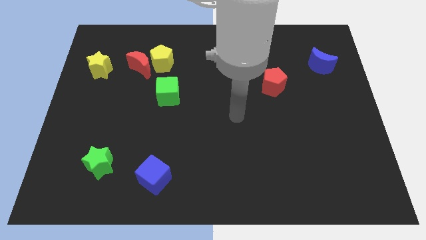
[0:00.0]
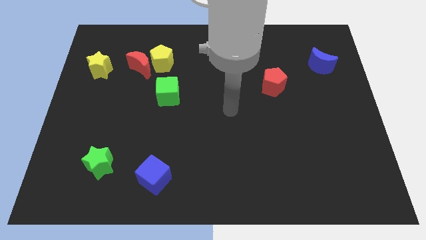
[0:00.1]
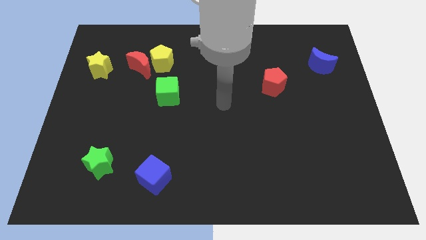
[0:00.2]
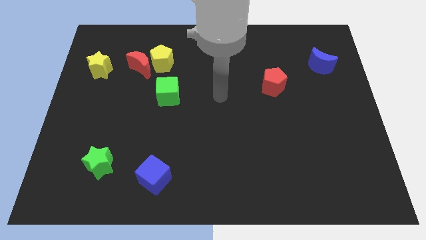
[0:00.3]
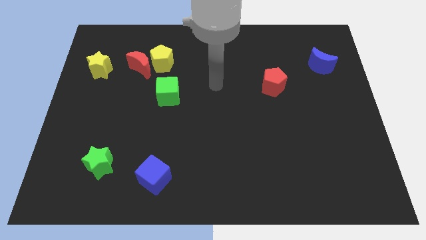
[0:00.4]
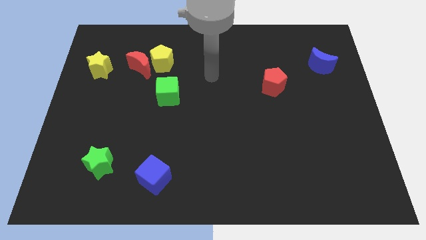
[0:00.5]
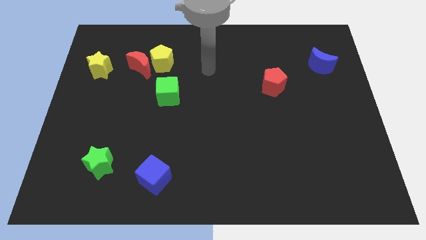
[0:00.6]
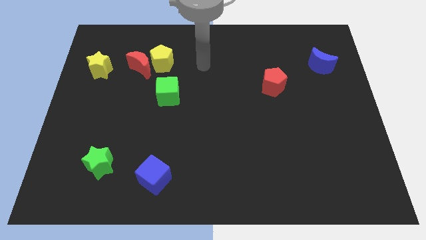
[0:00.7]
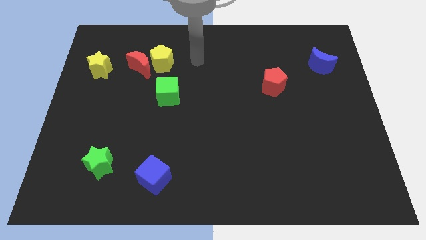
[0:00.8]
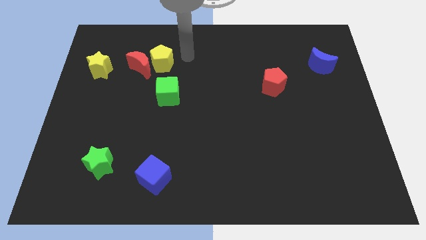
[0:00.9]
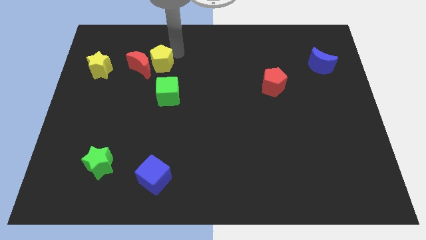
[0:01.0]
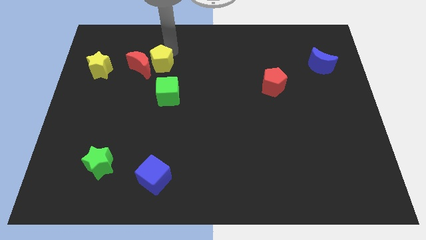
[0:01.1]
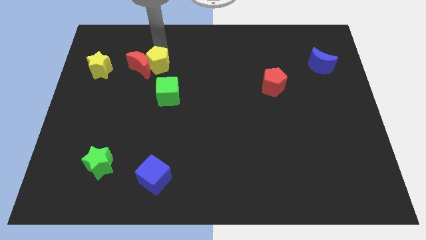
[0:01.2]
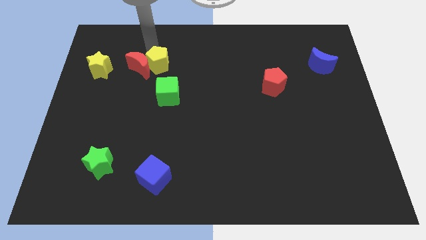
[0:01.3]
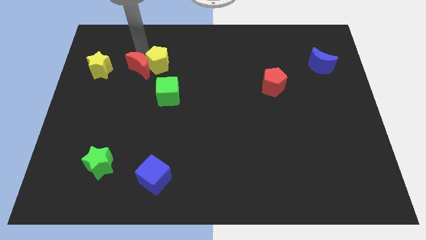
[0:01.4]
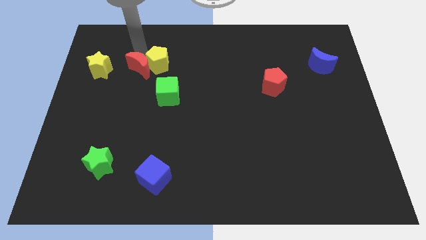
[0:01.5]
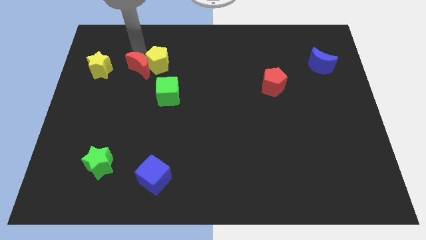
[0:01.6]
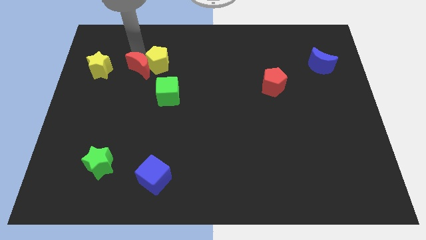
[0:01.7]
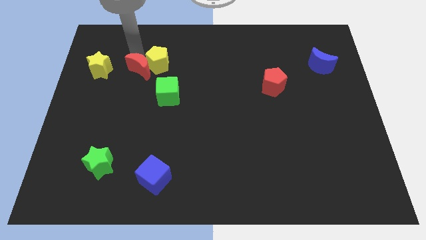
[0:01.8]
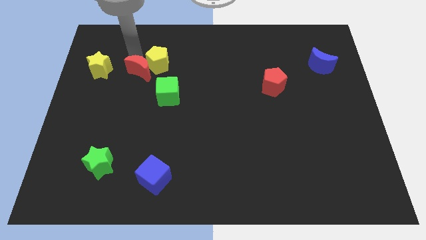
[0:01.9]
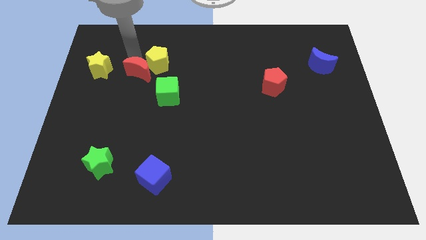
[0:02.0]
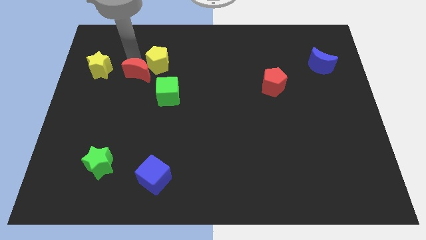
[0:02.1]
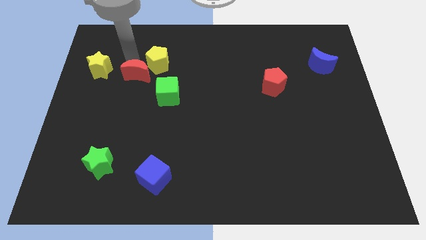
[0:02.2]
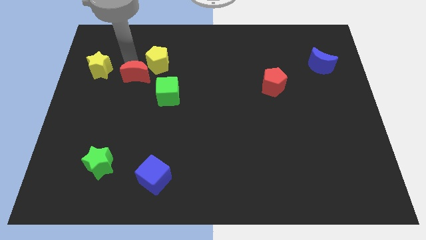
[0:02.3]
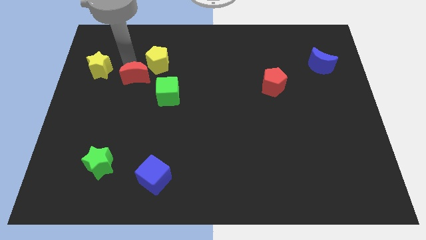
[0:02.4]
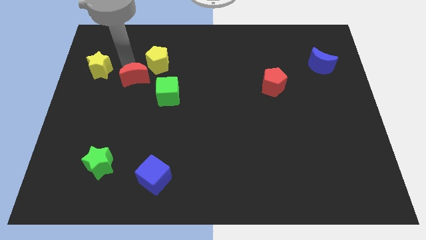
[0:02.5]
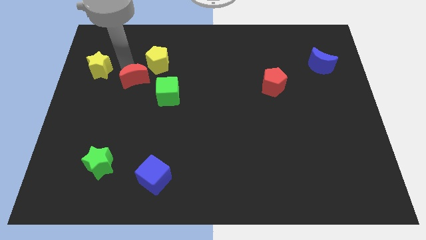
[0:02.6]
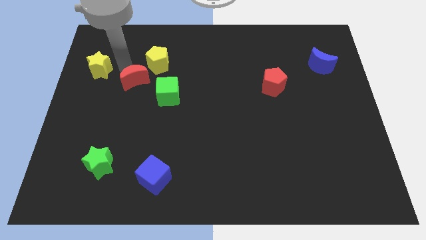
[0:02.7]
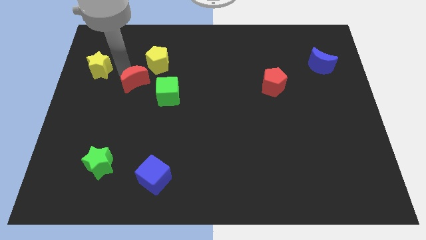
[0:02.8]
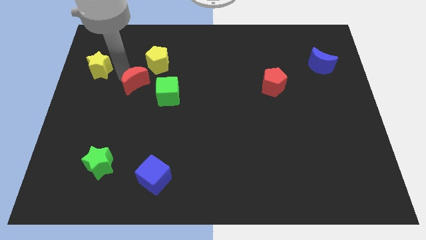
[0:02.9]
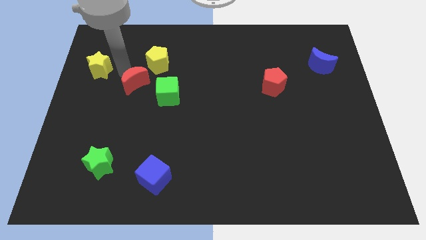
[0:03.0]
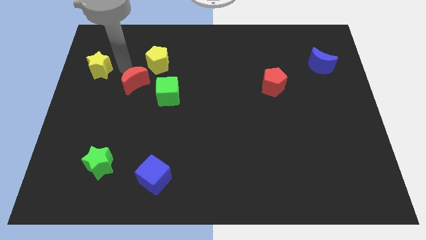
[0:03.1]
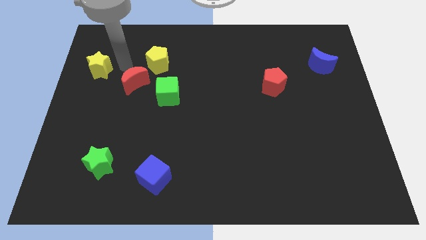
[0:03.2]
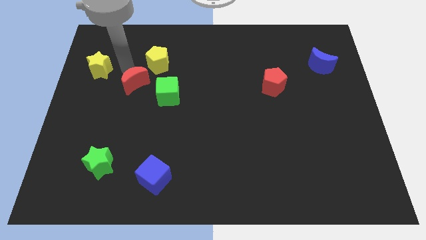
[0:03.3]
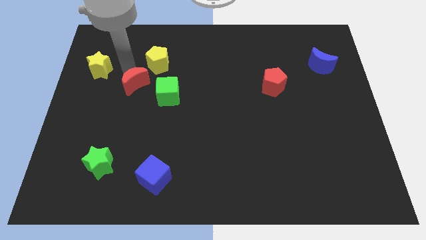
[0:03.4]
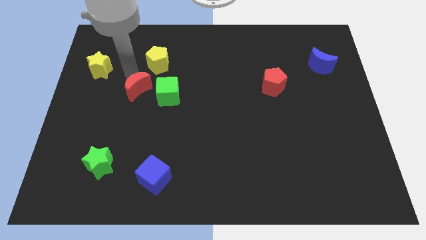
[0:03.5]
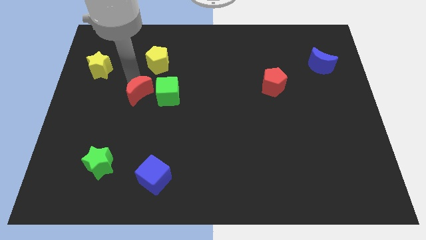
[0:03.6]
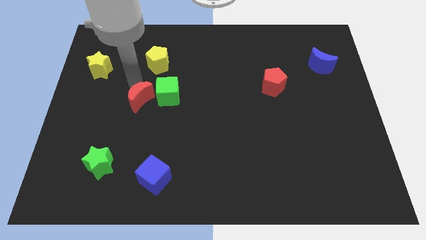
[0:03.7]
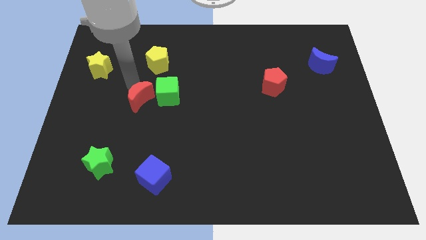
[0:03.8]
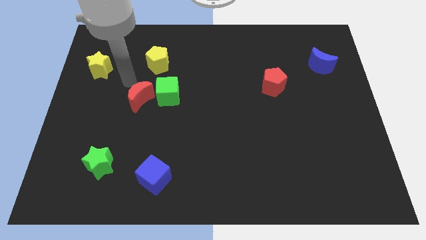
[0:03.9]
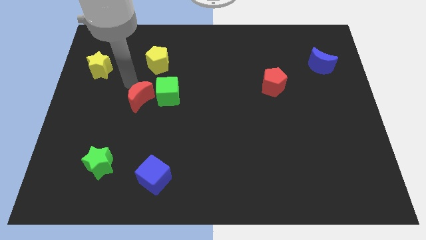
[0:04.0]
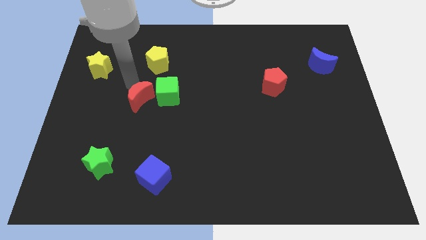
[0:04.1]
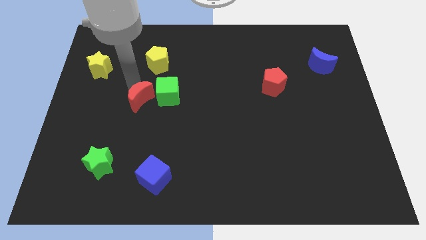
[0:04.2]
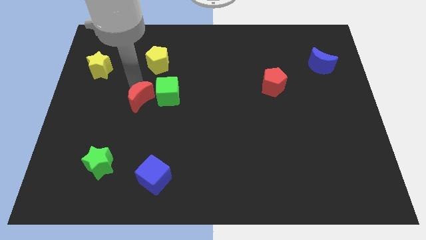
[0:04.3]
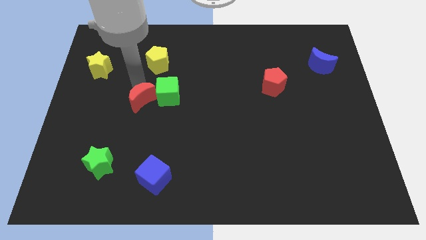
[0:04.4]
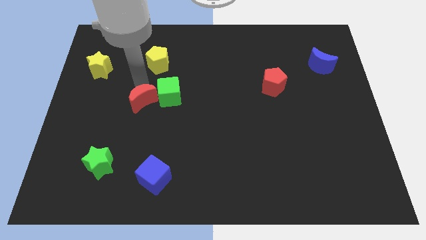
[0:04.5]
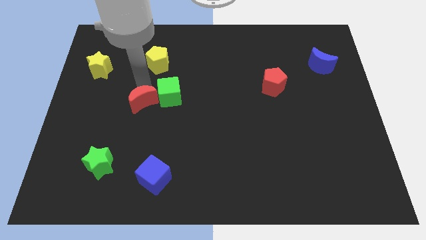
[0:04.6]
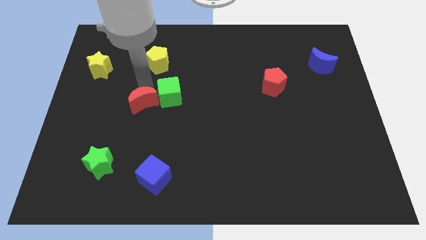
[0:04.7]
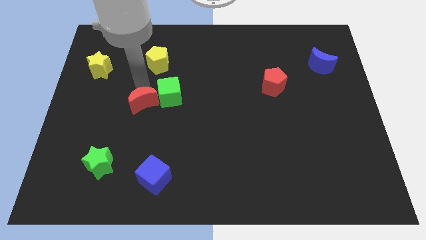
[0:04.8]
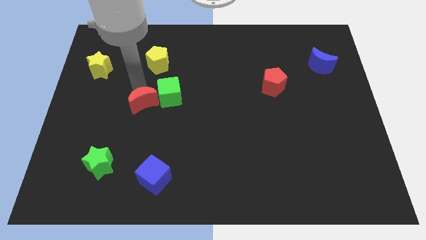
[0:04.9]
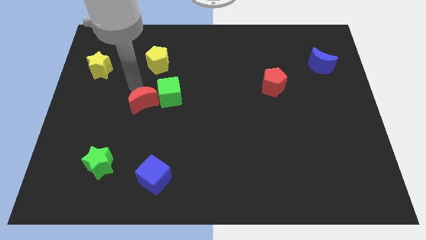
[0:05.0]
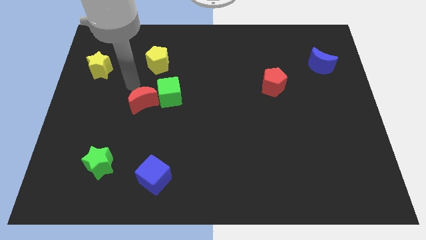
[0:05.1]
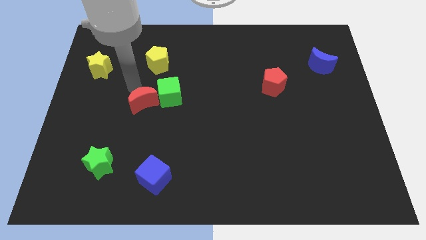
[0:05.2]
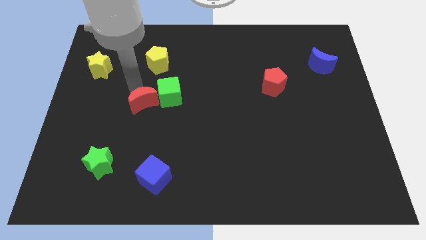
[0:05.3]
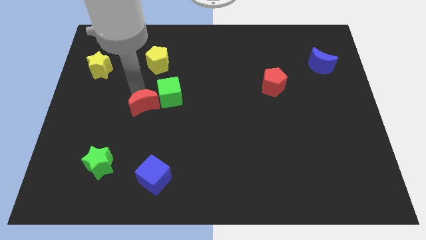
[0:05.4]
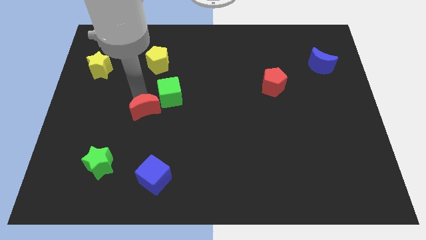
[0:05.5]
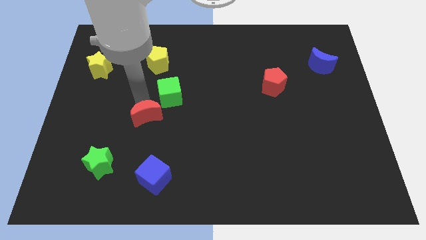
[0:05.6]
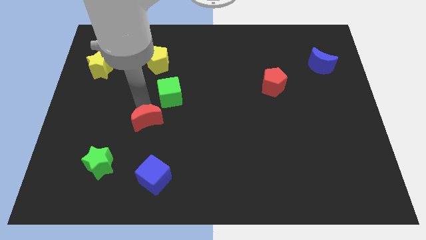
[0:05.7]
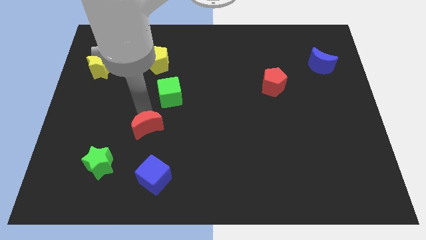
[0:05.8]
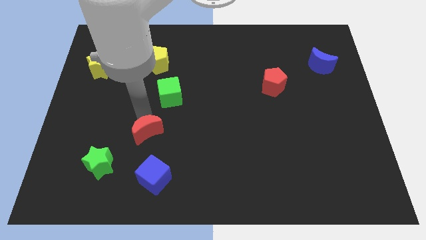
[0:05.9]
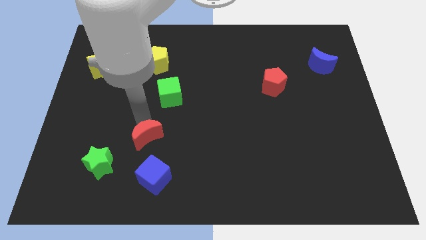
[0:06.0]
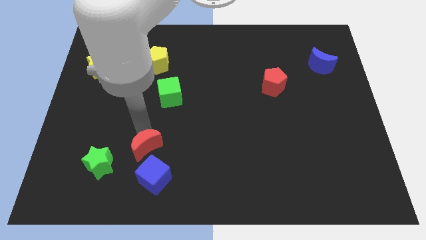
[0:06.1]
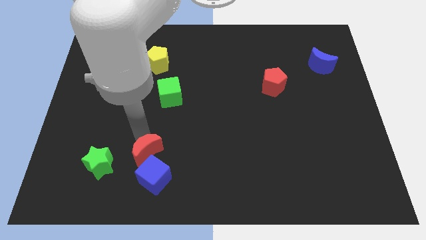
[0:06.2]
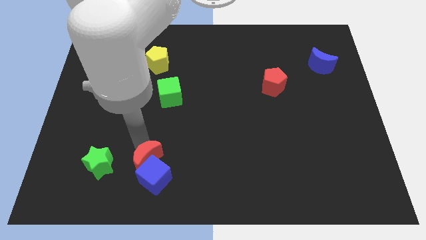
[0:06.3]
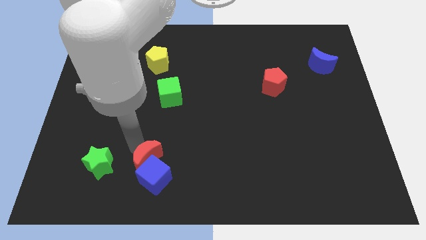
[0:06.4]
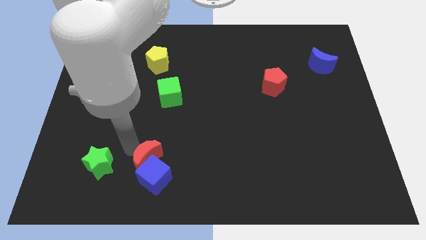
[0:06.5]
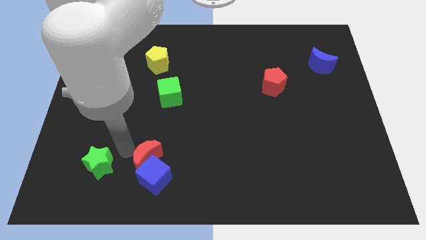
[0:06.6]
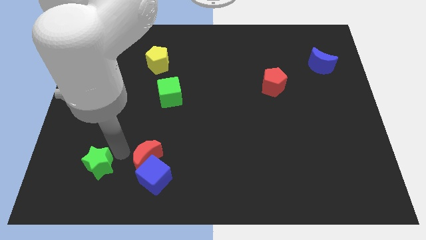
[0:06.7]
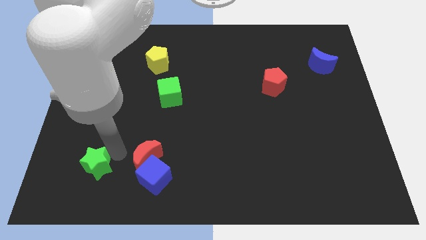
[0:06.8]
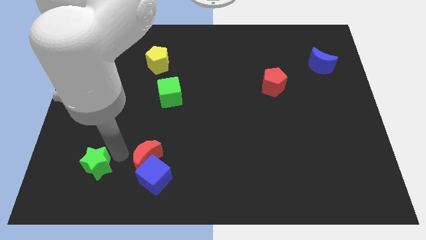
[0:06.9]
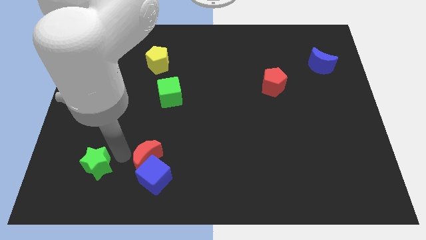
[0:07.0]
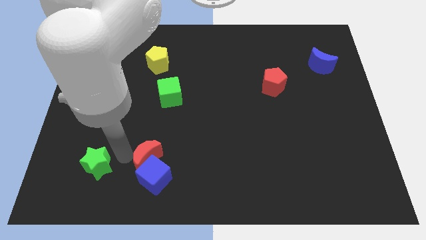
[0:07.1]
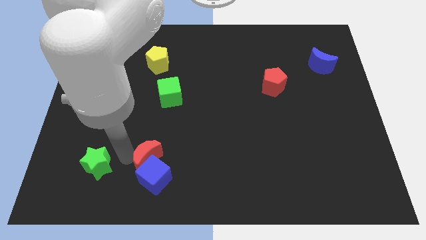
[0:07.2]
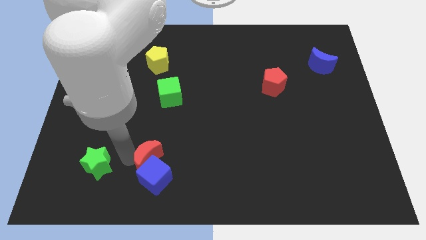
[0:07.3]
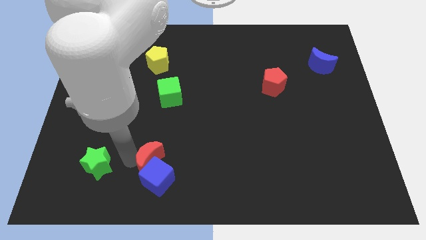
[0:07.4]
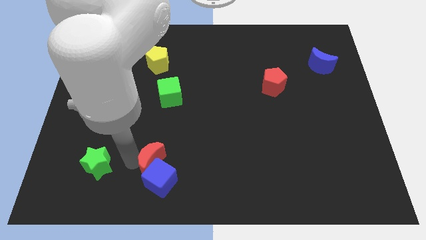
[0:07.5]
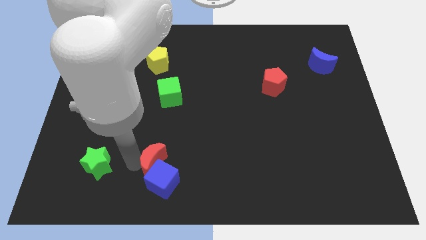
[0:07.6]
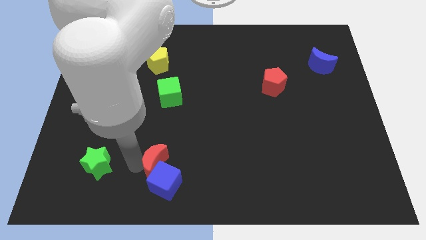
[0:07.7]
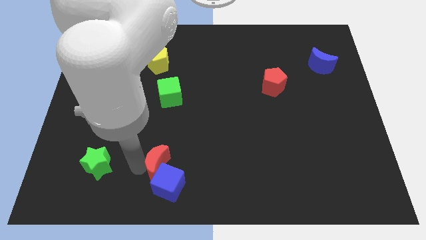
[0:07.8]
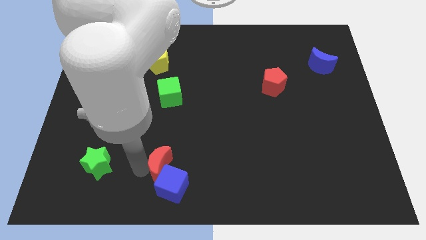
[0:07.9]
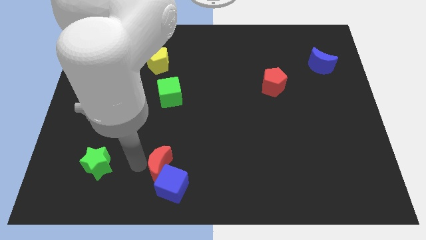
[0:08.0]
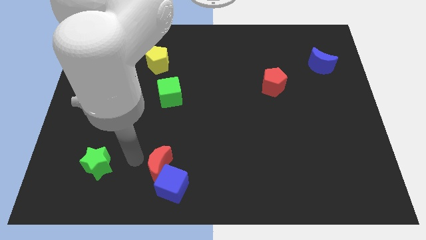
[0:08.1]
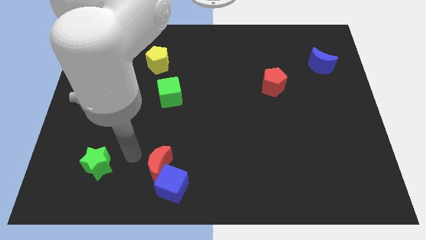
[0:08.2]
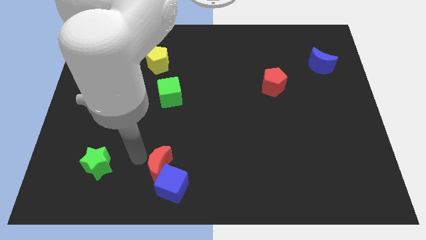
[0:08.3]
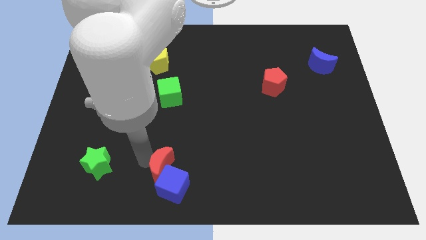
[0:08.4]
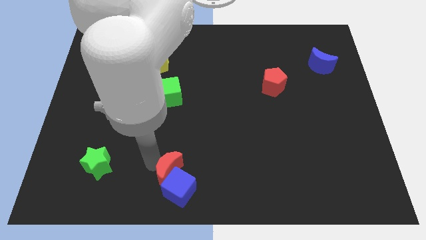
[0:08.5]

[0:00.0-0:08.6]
slide the red moon to the bottom side
